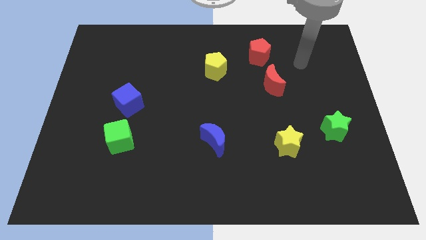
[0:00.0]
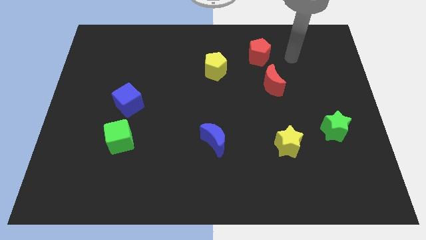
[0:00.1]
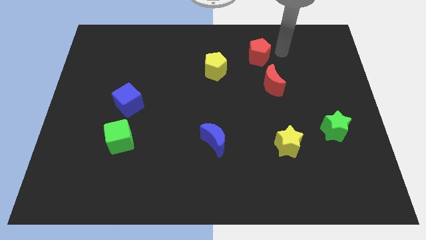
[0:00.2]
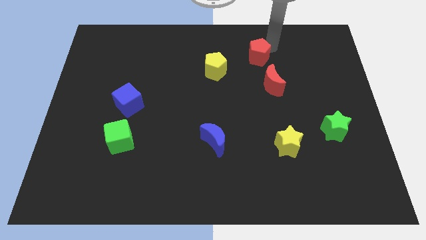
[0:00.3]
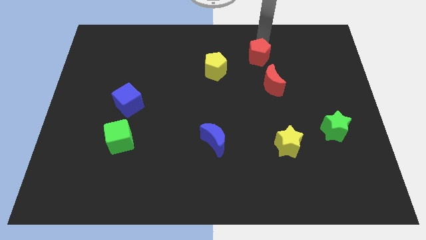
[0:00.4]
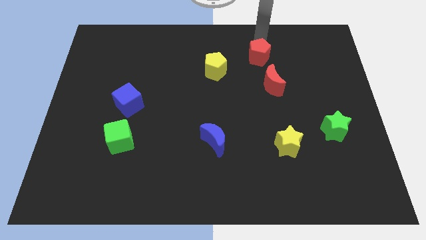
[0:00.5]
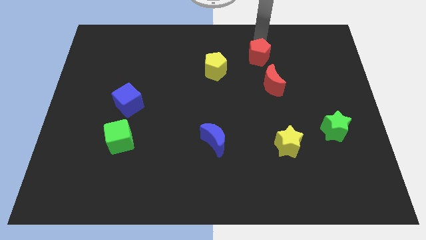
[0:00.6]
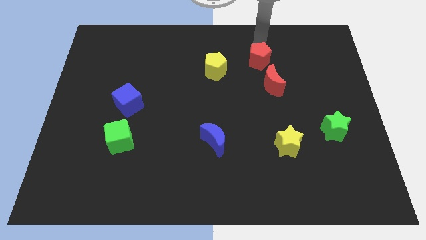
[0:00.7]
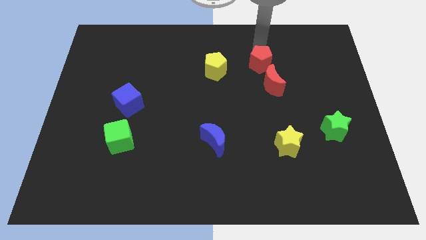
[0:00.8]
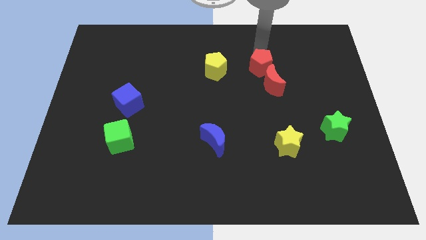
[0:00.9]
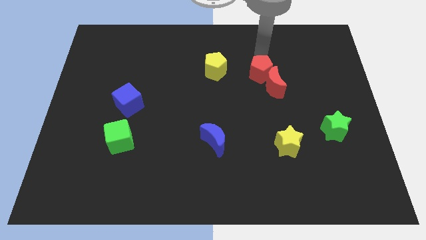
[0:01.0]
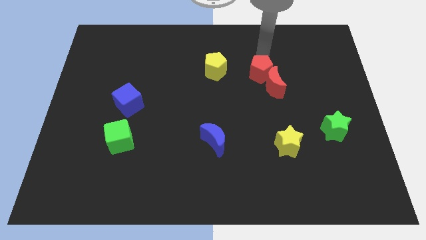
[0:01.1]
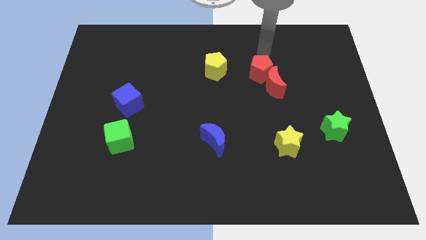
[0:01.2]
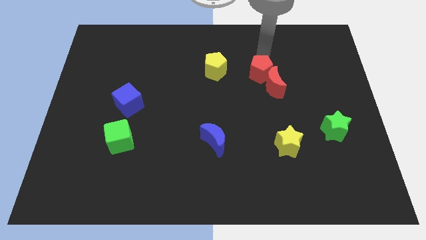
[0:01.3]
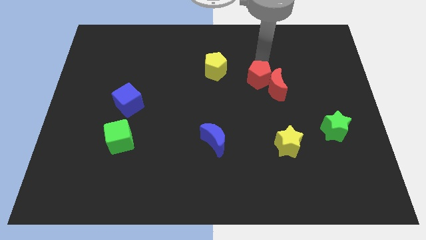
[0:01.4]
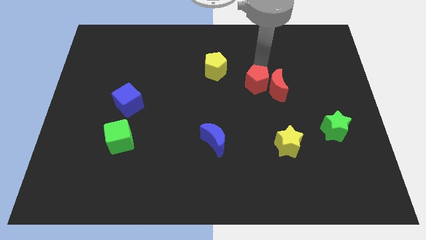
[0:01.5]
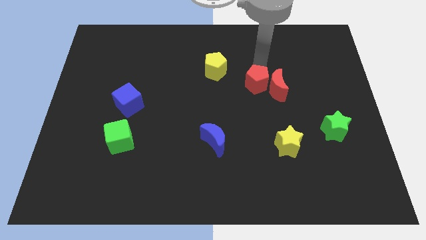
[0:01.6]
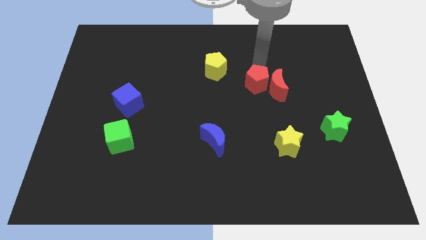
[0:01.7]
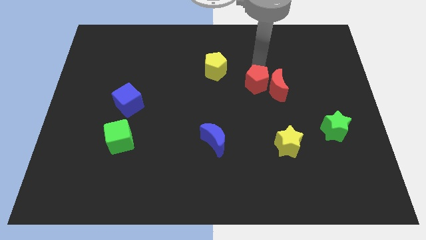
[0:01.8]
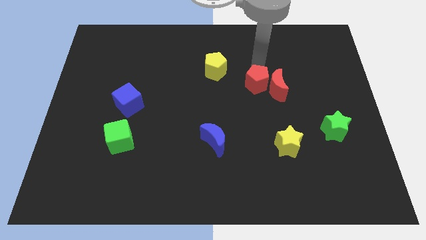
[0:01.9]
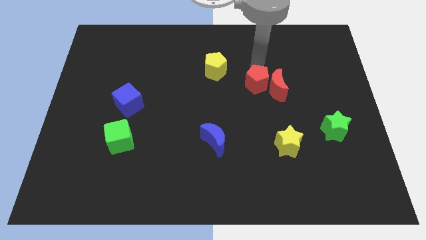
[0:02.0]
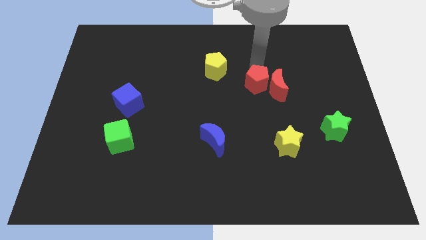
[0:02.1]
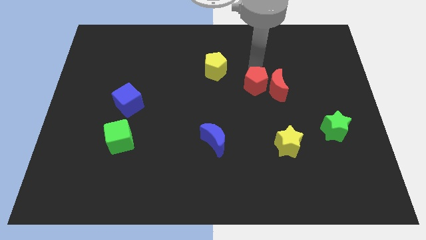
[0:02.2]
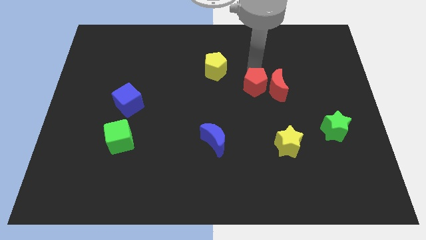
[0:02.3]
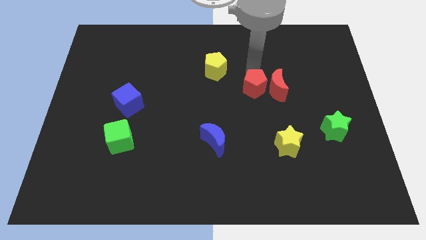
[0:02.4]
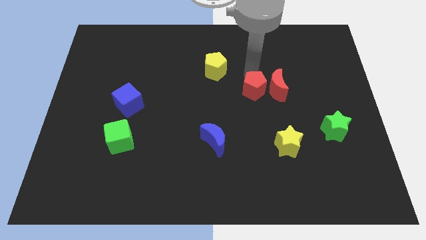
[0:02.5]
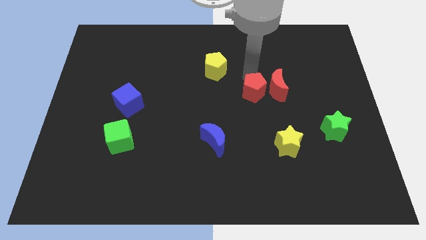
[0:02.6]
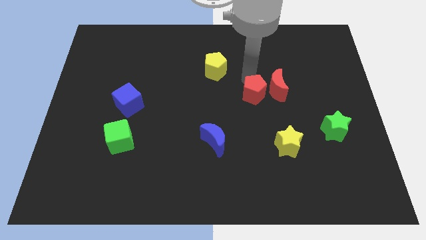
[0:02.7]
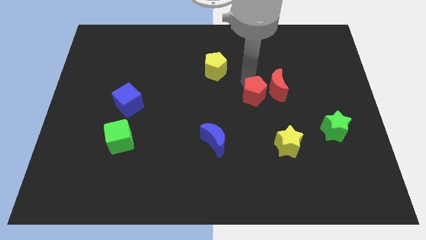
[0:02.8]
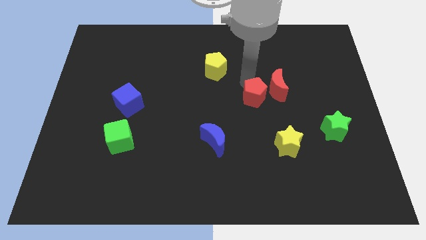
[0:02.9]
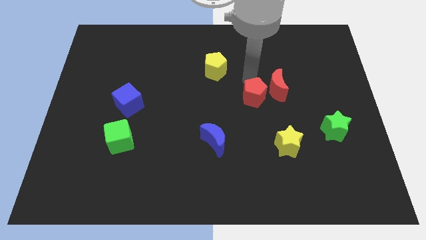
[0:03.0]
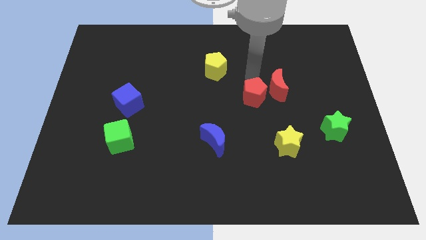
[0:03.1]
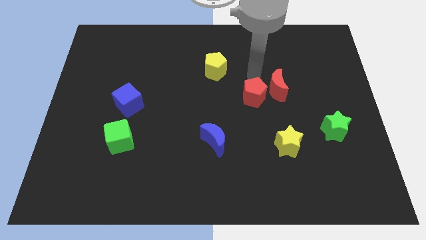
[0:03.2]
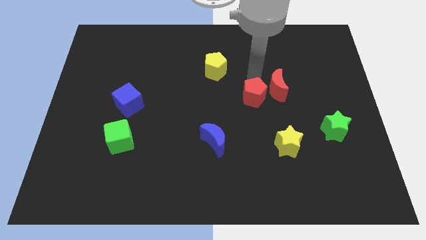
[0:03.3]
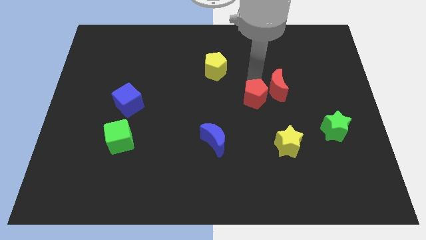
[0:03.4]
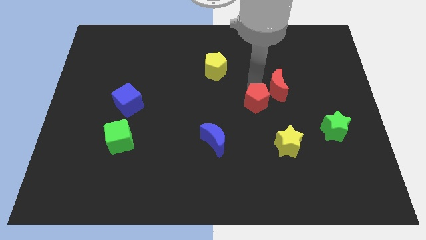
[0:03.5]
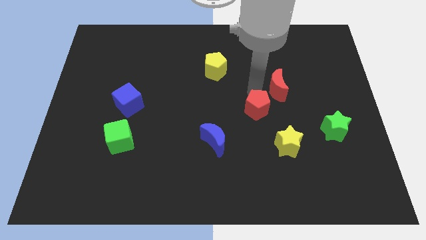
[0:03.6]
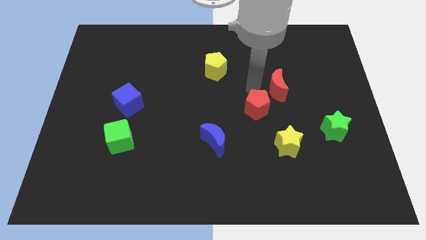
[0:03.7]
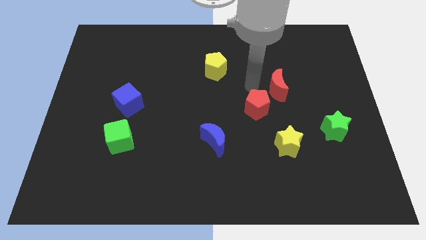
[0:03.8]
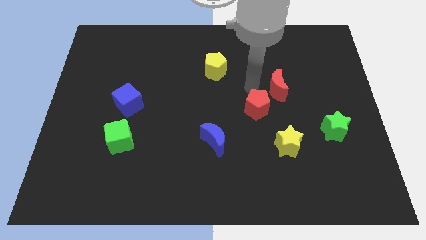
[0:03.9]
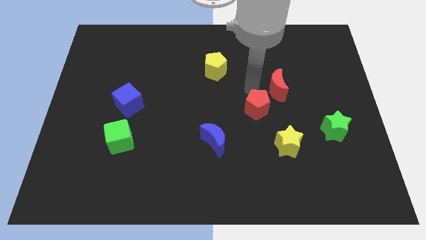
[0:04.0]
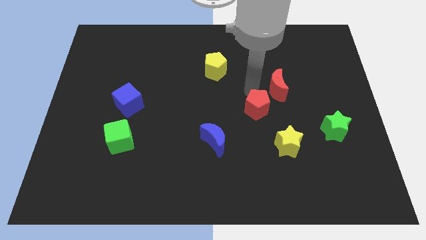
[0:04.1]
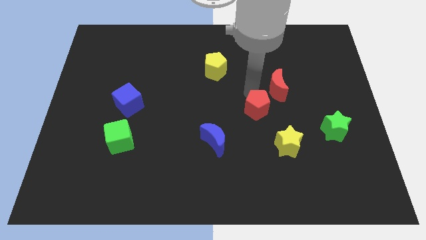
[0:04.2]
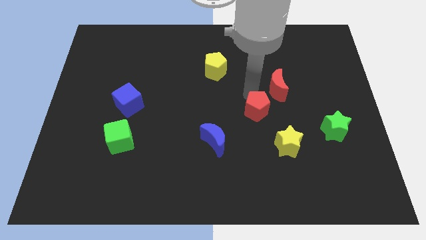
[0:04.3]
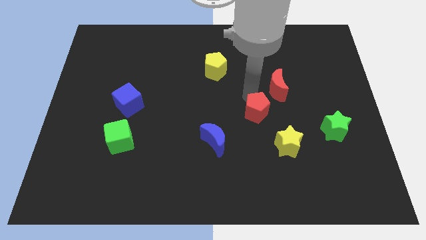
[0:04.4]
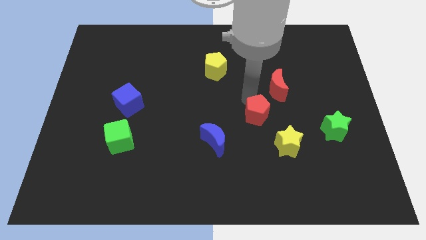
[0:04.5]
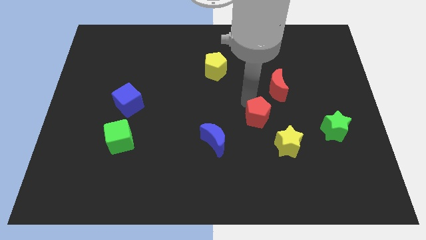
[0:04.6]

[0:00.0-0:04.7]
move the red pentagon downwards

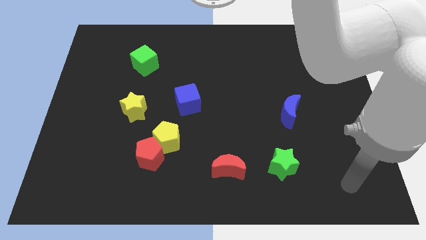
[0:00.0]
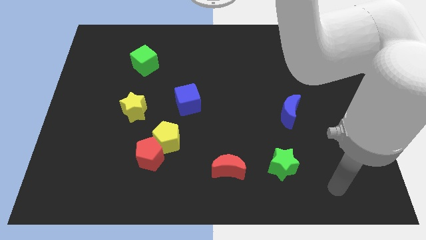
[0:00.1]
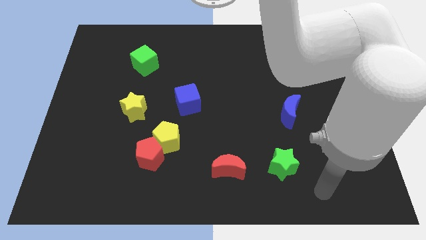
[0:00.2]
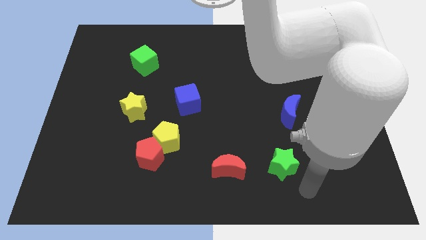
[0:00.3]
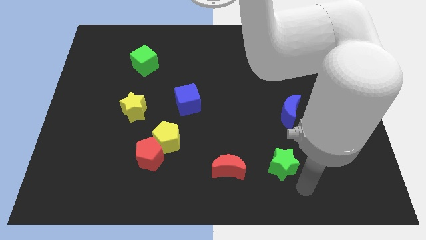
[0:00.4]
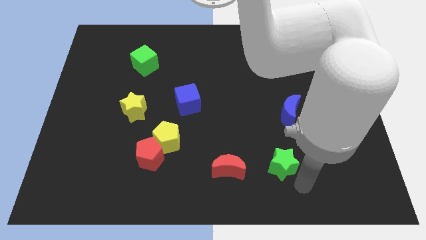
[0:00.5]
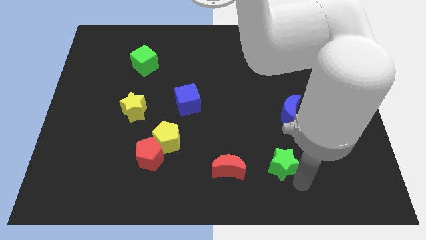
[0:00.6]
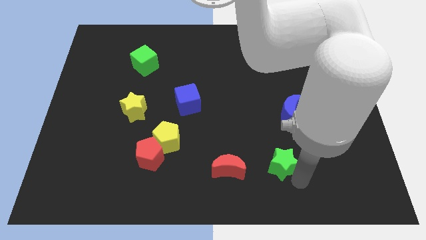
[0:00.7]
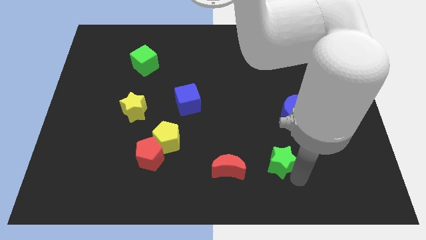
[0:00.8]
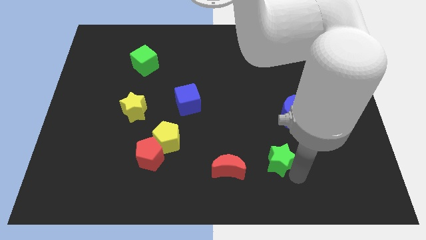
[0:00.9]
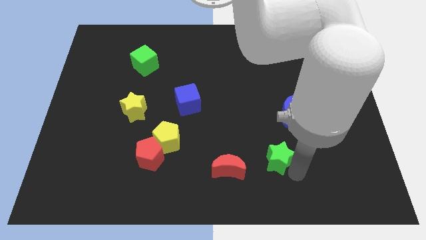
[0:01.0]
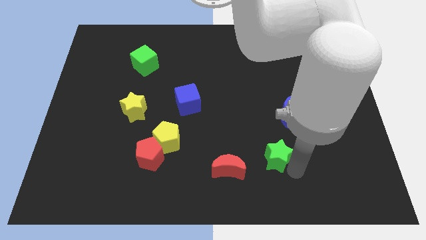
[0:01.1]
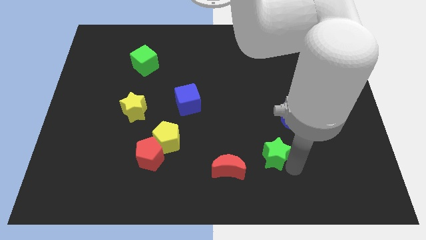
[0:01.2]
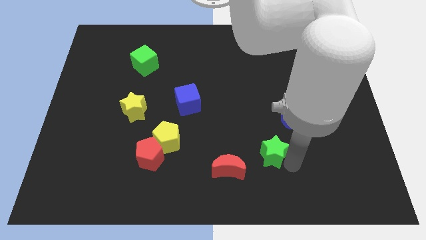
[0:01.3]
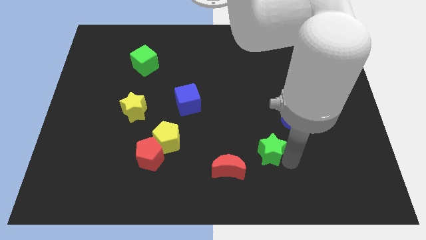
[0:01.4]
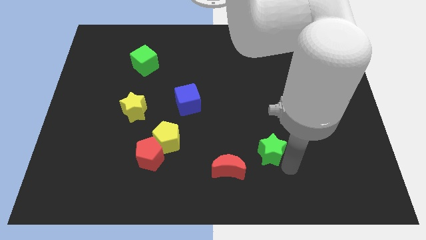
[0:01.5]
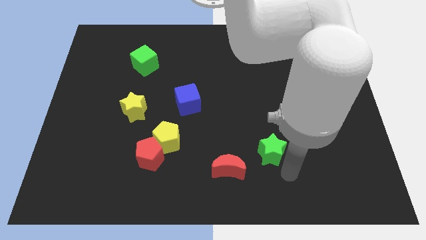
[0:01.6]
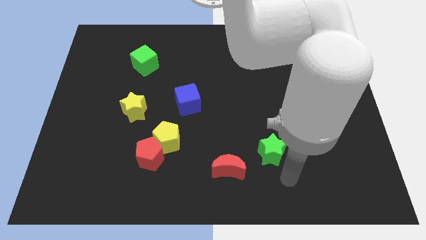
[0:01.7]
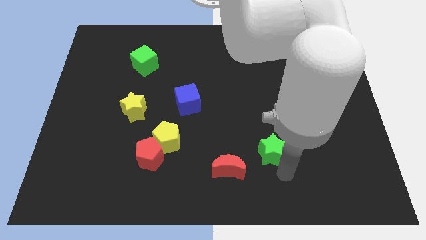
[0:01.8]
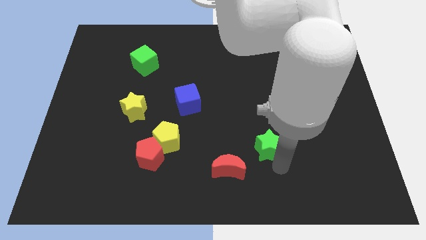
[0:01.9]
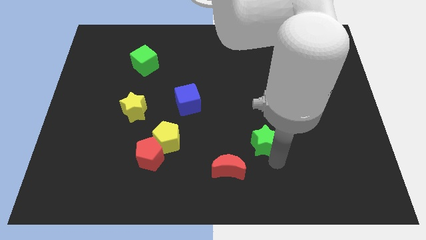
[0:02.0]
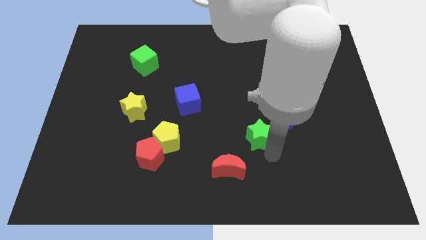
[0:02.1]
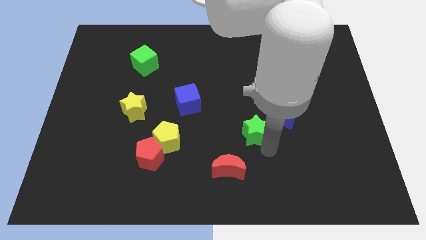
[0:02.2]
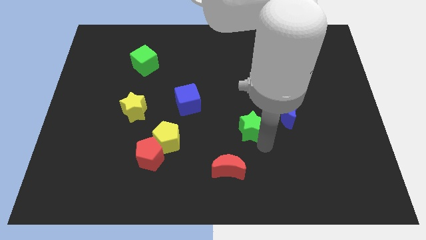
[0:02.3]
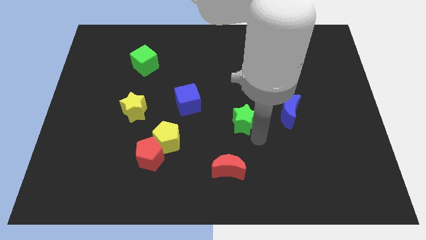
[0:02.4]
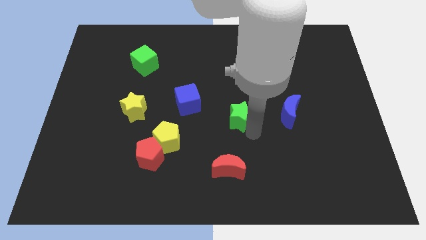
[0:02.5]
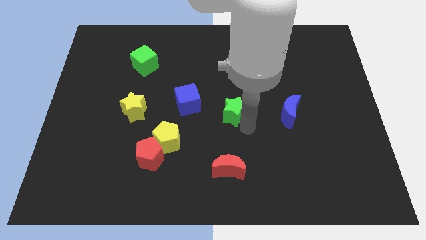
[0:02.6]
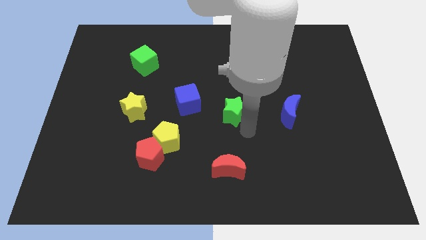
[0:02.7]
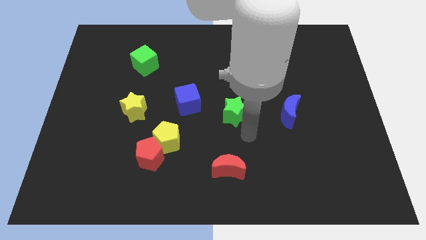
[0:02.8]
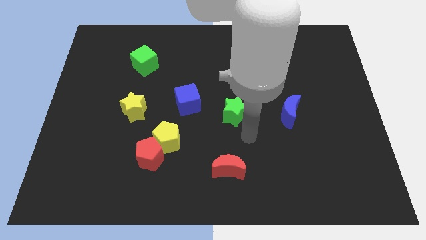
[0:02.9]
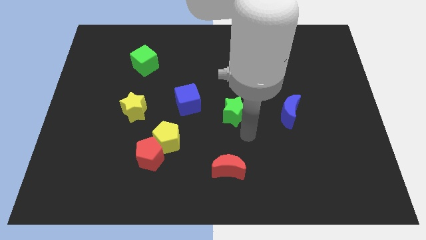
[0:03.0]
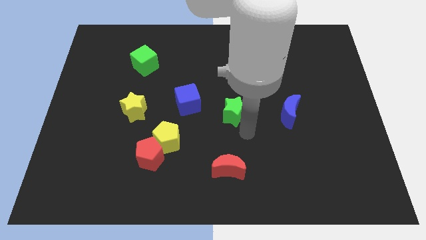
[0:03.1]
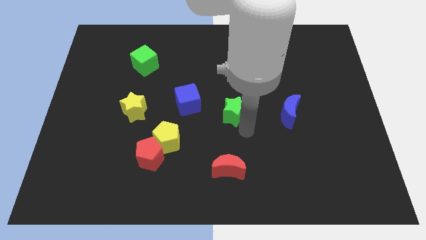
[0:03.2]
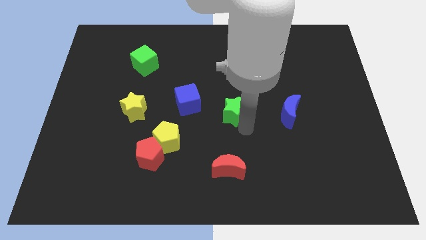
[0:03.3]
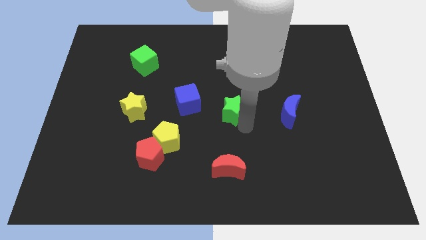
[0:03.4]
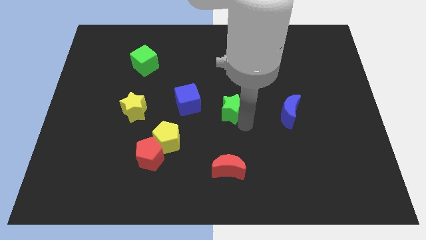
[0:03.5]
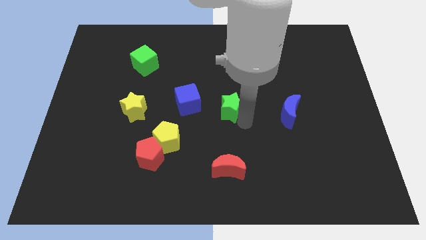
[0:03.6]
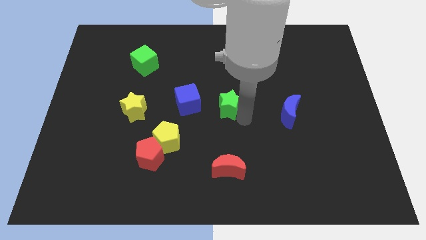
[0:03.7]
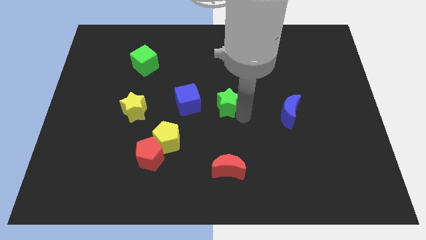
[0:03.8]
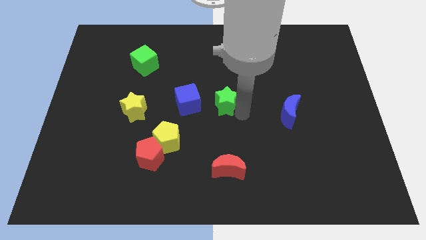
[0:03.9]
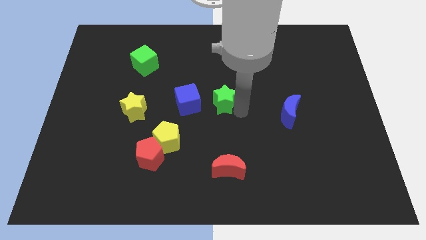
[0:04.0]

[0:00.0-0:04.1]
push the green star upwards and to the left
